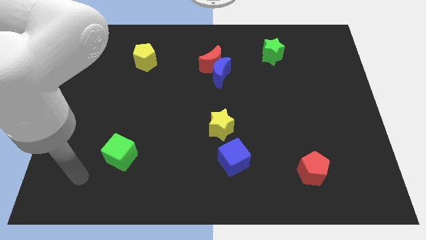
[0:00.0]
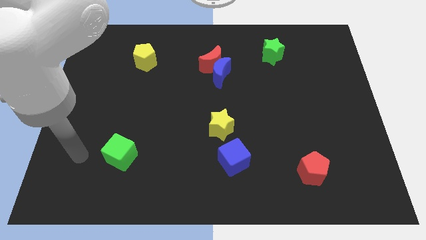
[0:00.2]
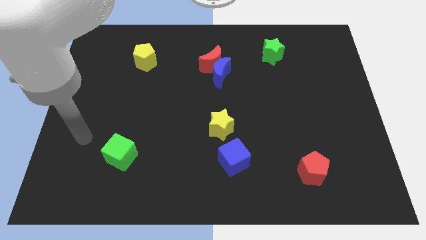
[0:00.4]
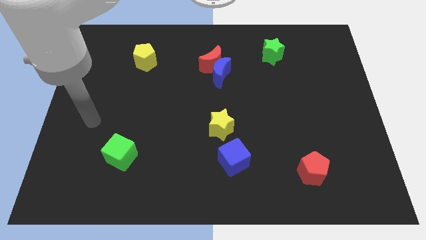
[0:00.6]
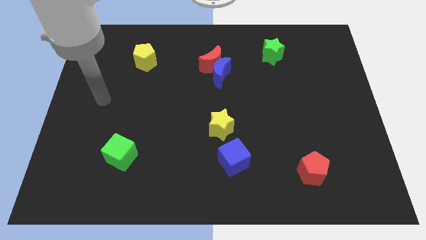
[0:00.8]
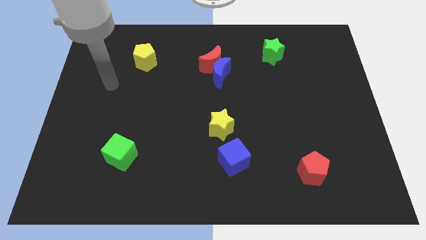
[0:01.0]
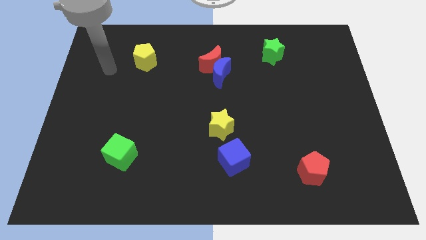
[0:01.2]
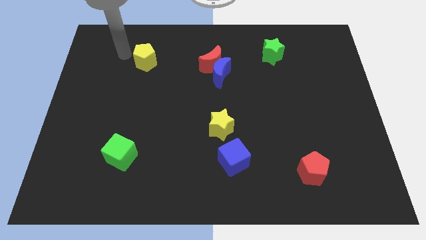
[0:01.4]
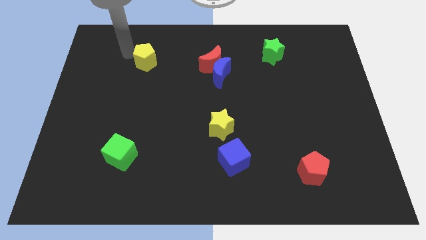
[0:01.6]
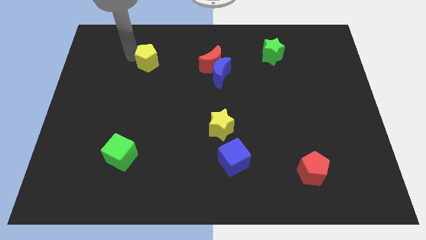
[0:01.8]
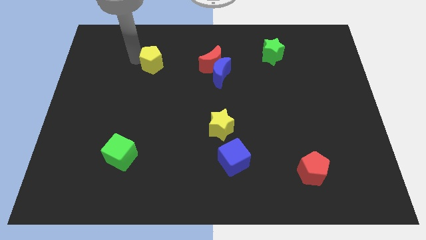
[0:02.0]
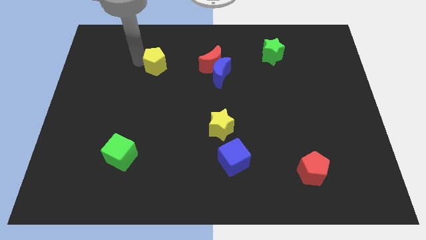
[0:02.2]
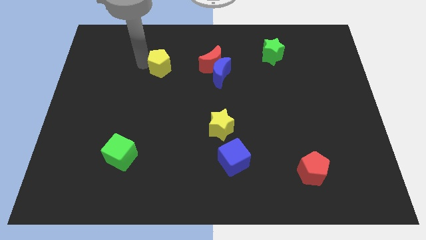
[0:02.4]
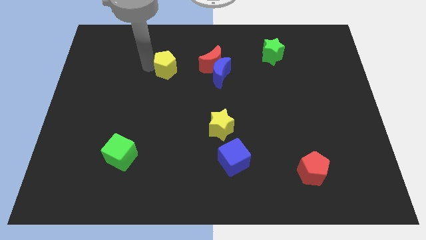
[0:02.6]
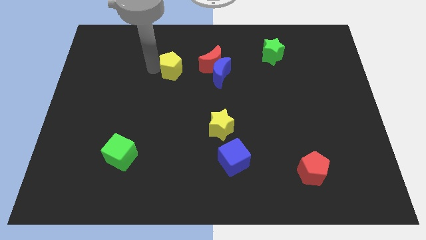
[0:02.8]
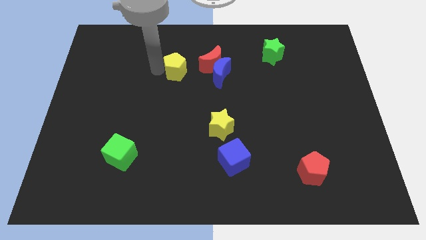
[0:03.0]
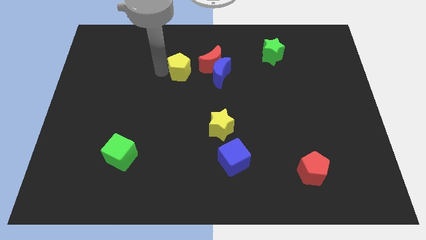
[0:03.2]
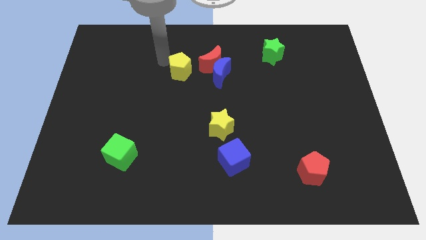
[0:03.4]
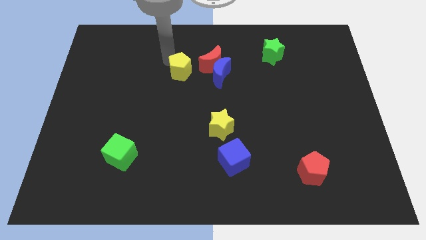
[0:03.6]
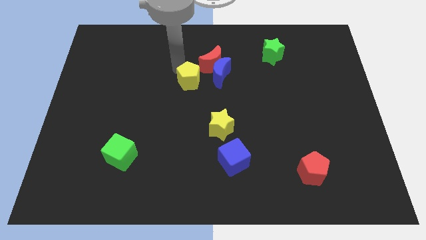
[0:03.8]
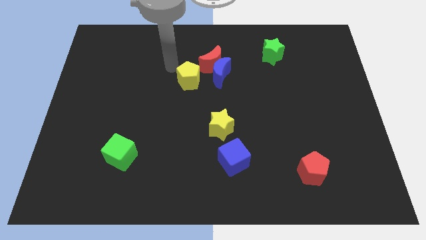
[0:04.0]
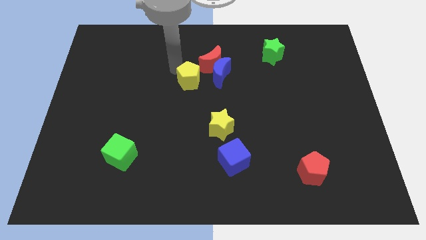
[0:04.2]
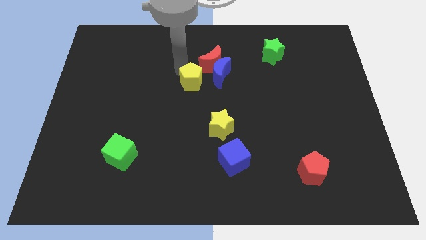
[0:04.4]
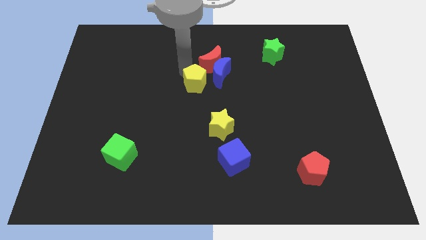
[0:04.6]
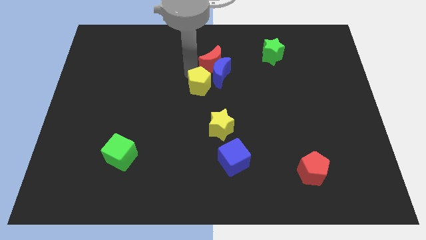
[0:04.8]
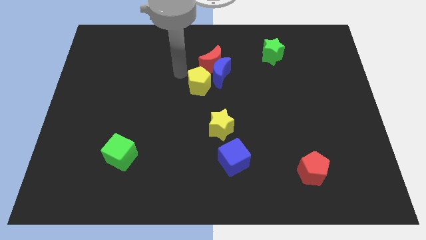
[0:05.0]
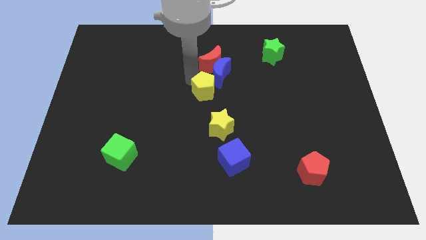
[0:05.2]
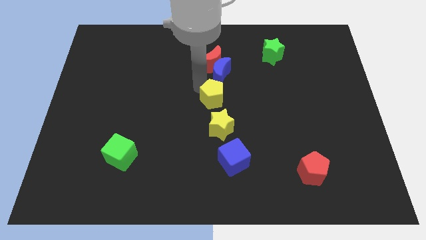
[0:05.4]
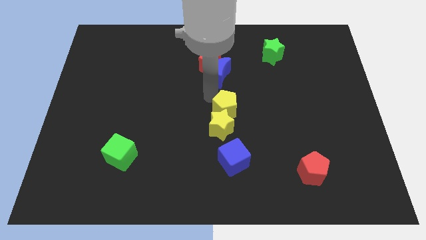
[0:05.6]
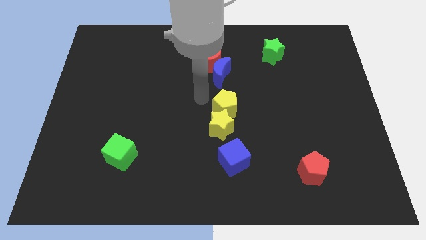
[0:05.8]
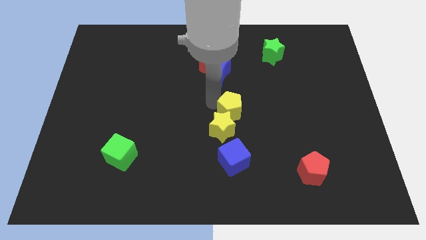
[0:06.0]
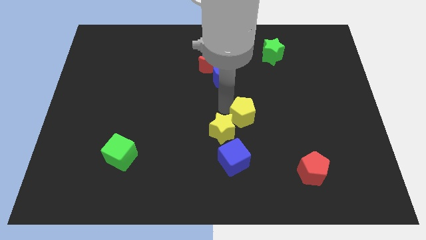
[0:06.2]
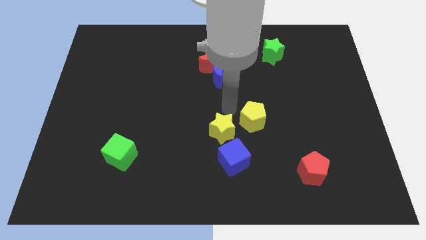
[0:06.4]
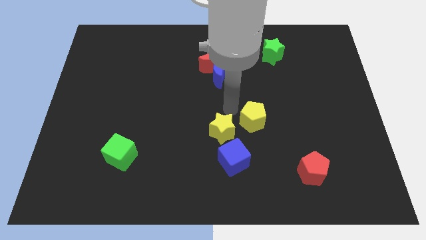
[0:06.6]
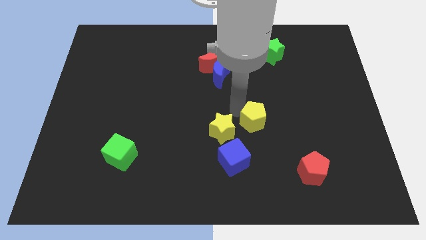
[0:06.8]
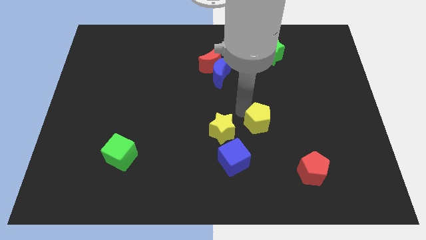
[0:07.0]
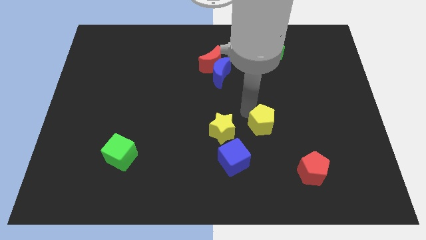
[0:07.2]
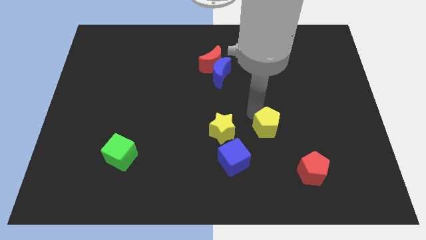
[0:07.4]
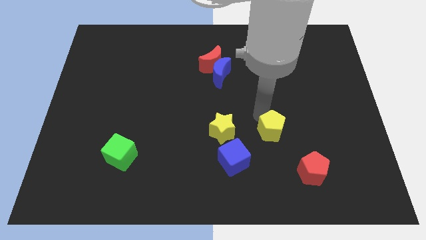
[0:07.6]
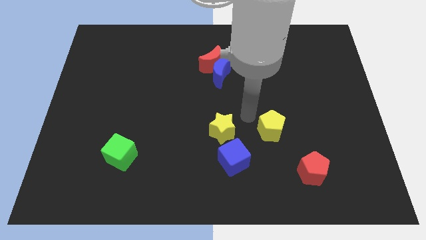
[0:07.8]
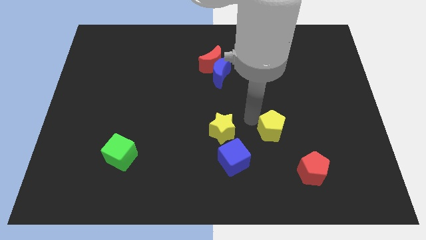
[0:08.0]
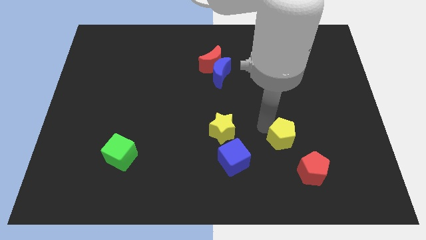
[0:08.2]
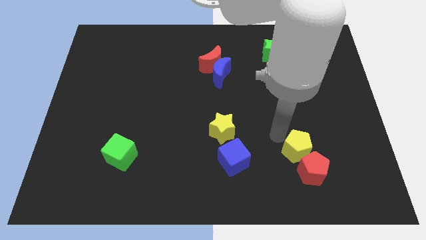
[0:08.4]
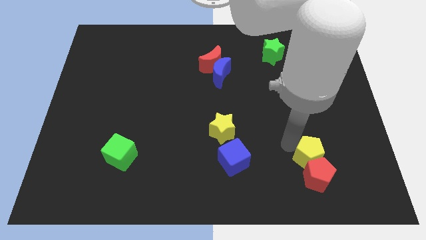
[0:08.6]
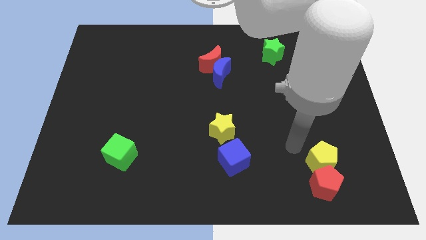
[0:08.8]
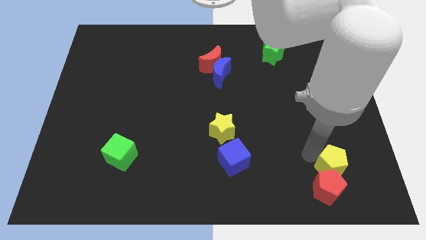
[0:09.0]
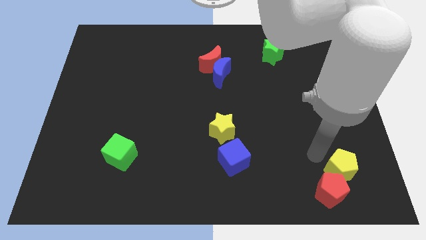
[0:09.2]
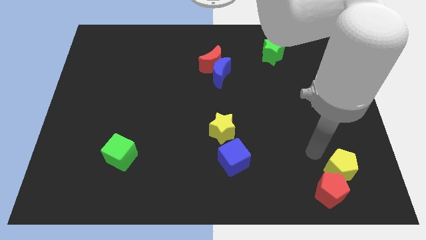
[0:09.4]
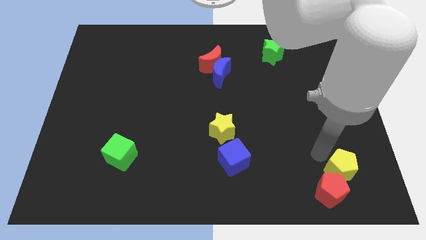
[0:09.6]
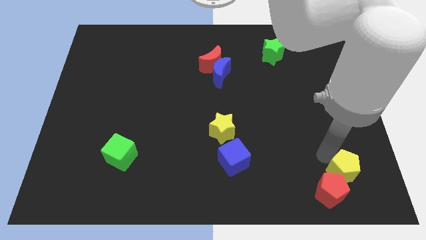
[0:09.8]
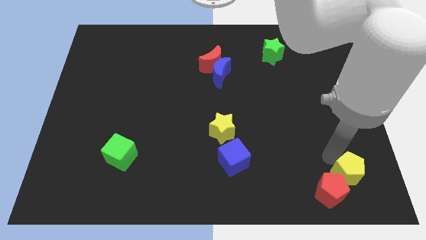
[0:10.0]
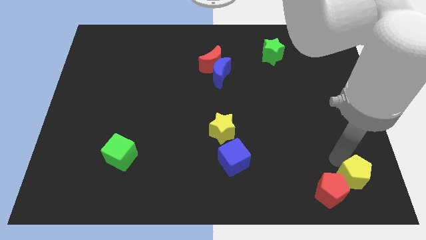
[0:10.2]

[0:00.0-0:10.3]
put the yellow pentagon to the bottom right corner

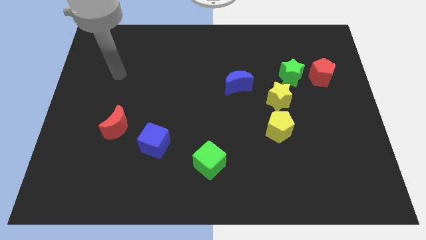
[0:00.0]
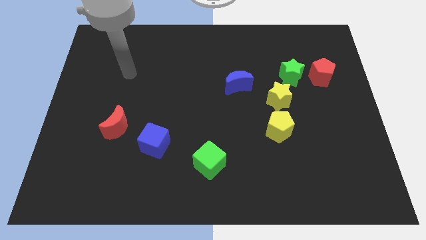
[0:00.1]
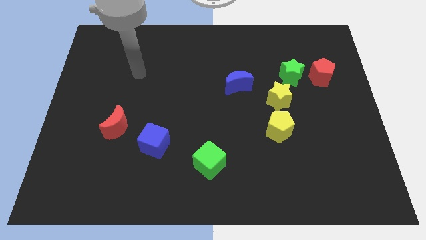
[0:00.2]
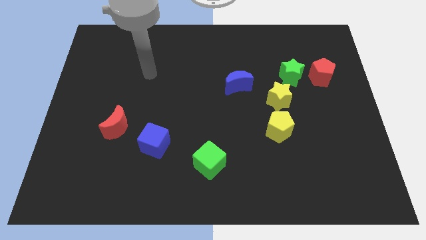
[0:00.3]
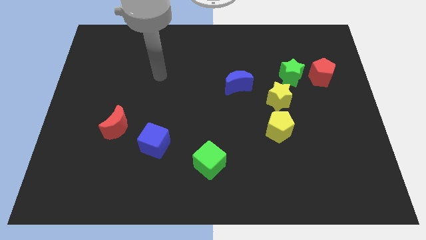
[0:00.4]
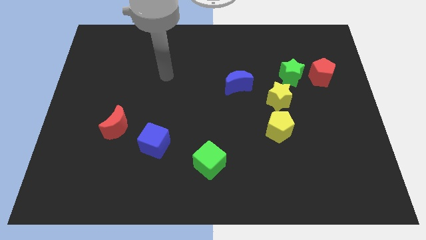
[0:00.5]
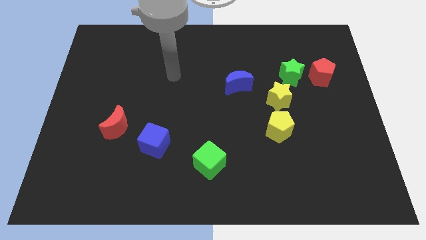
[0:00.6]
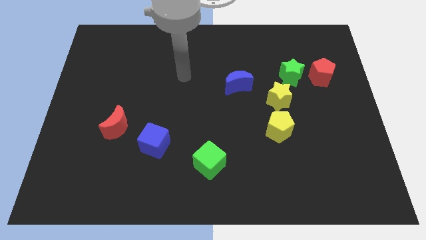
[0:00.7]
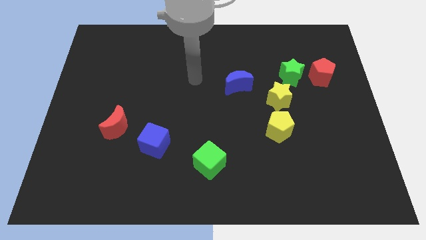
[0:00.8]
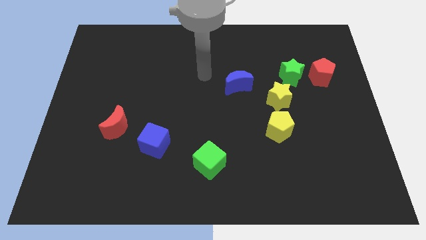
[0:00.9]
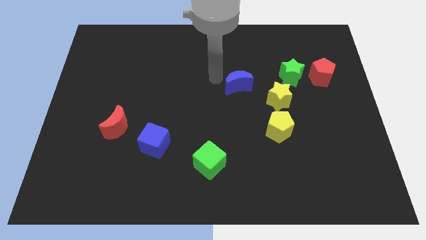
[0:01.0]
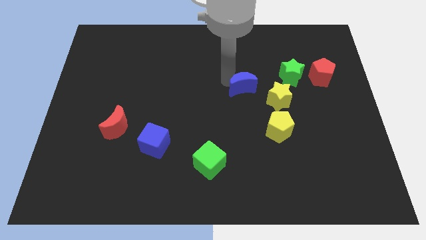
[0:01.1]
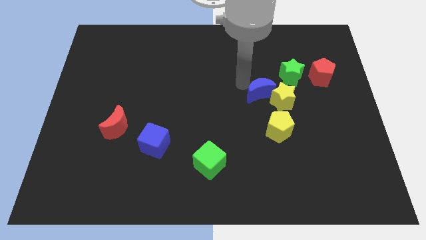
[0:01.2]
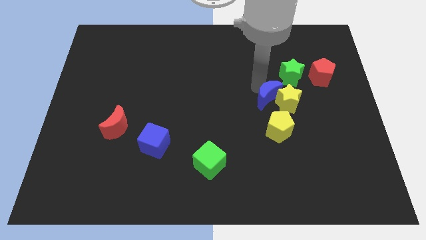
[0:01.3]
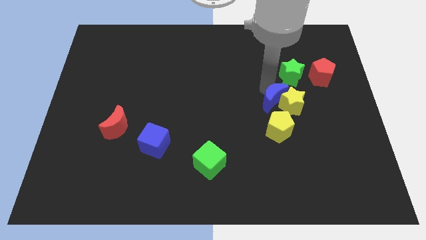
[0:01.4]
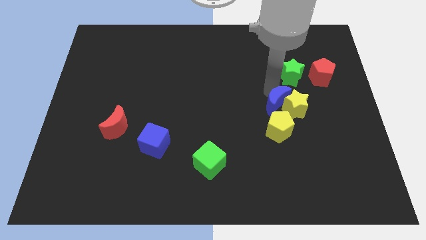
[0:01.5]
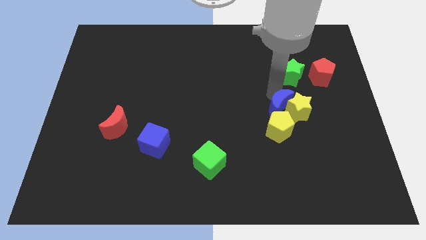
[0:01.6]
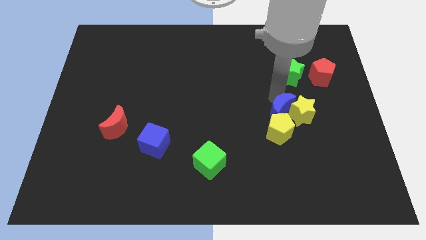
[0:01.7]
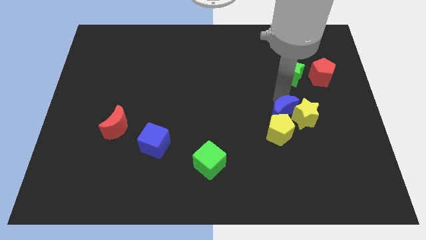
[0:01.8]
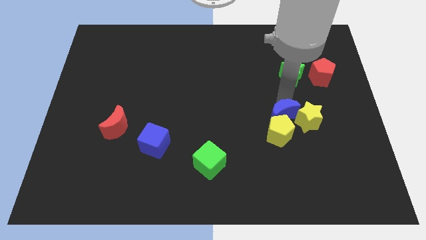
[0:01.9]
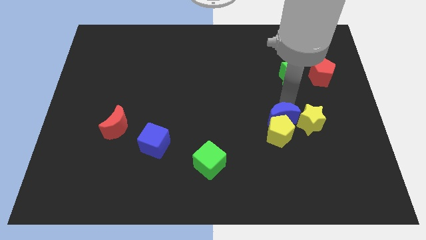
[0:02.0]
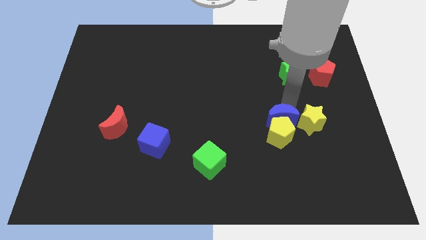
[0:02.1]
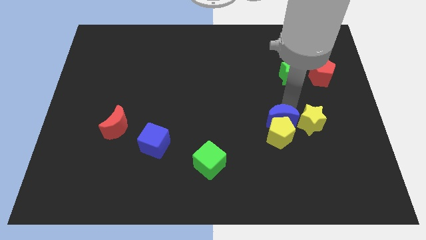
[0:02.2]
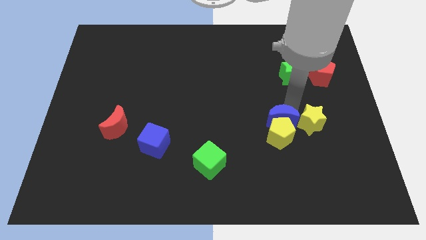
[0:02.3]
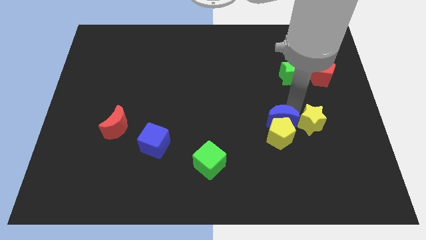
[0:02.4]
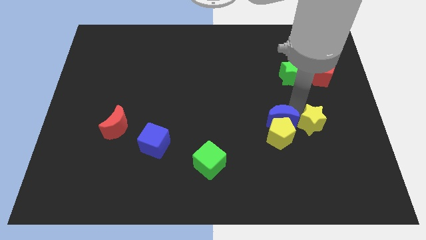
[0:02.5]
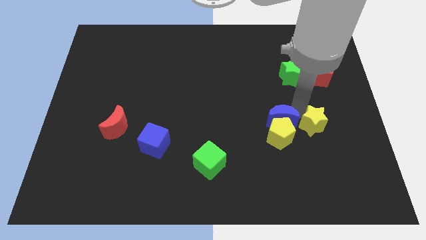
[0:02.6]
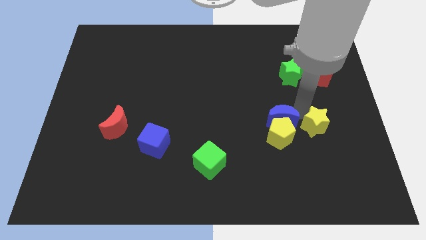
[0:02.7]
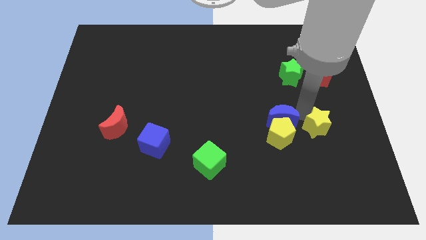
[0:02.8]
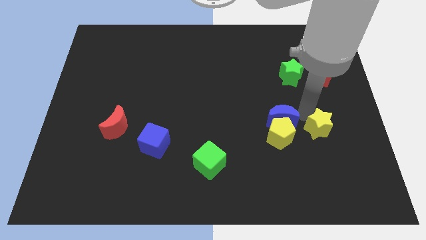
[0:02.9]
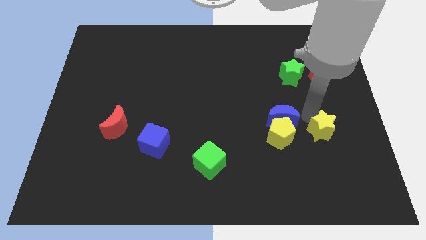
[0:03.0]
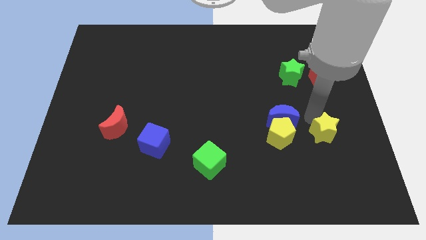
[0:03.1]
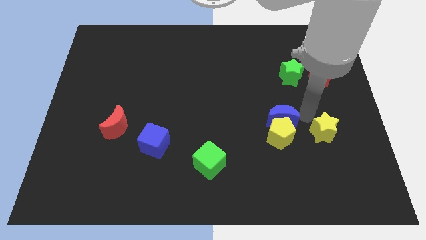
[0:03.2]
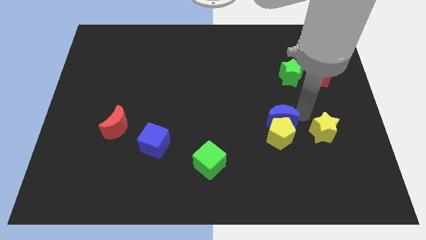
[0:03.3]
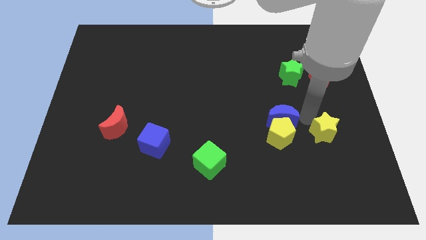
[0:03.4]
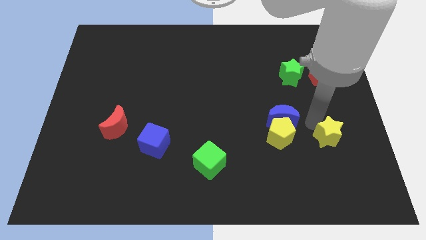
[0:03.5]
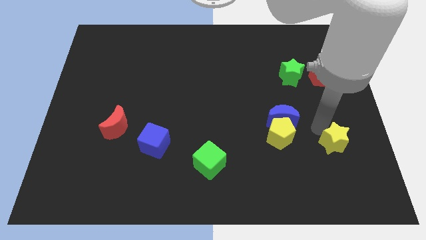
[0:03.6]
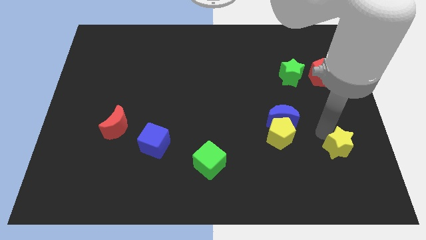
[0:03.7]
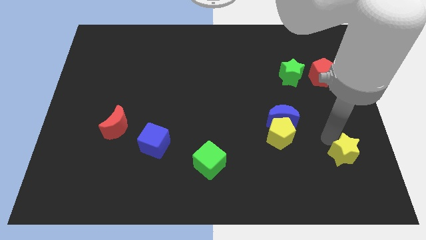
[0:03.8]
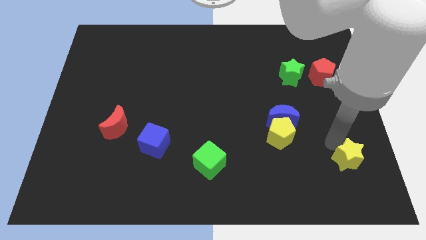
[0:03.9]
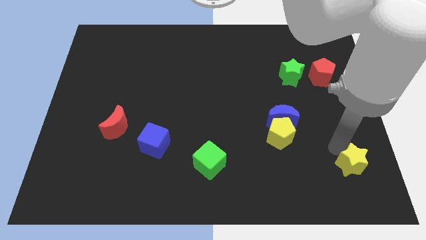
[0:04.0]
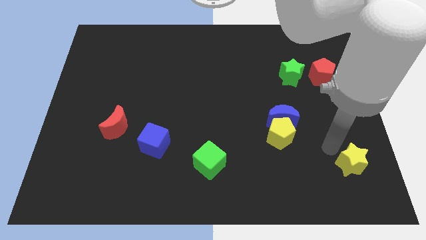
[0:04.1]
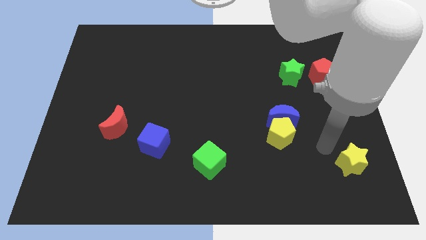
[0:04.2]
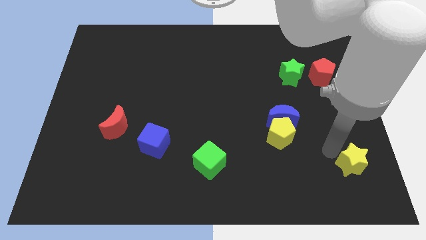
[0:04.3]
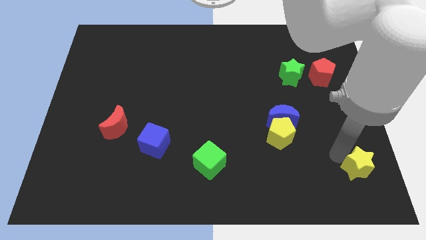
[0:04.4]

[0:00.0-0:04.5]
push the yellow star to the bottom right of the board
